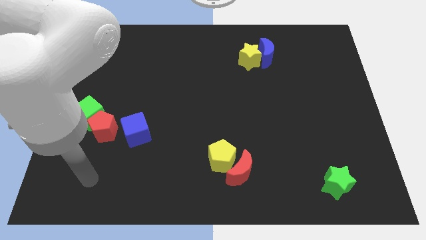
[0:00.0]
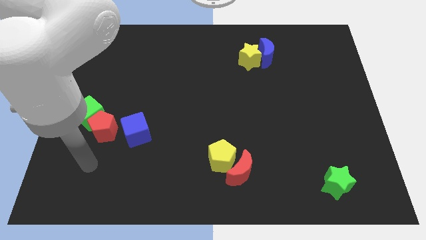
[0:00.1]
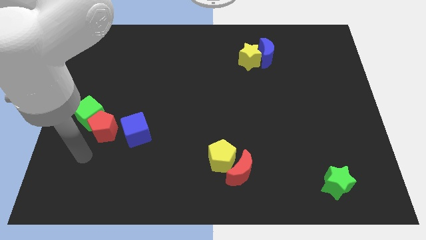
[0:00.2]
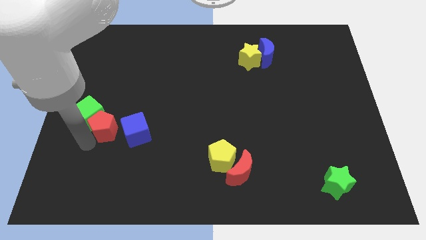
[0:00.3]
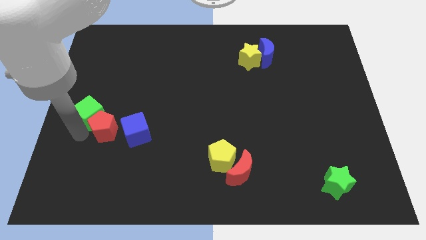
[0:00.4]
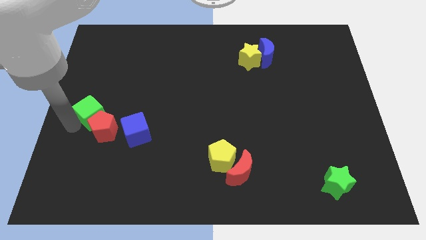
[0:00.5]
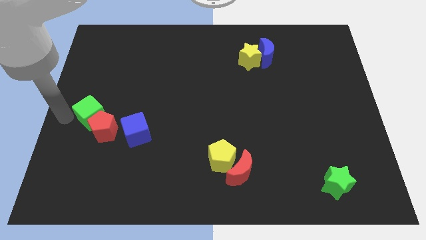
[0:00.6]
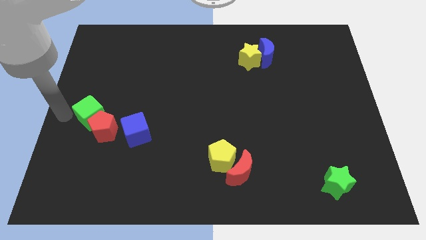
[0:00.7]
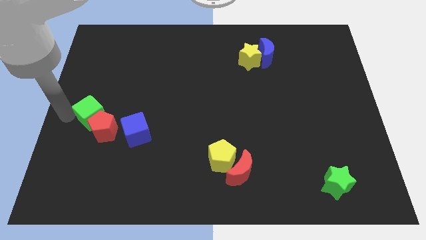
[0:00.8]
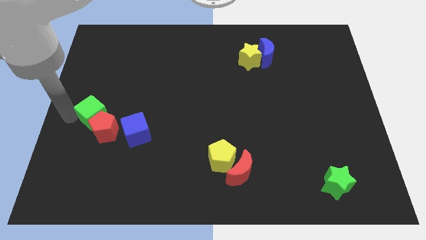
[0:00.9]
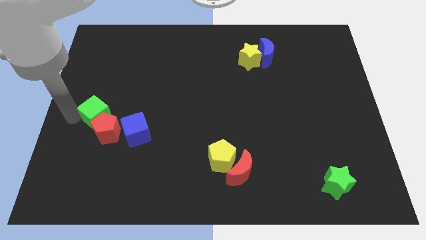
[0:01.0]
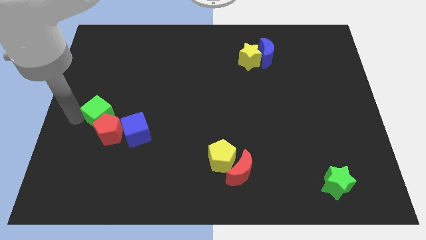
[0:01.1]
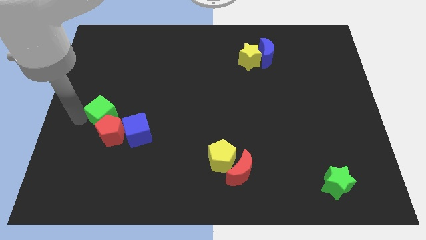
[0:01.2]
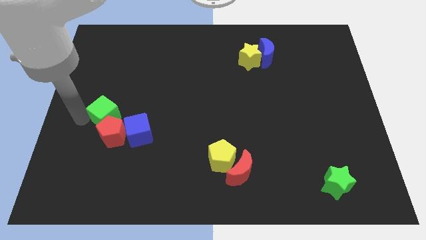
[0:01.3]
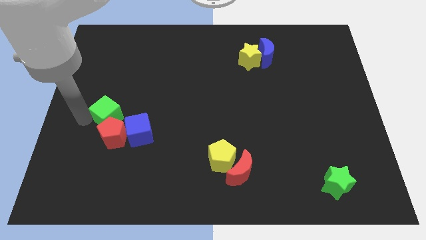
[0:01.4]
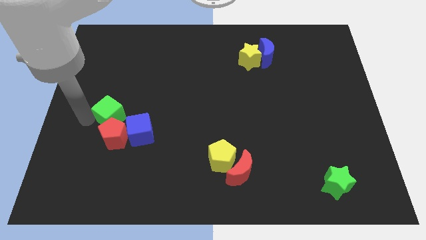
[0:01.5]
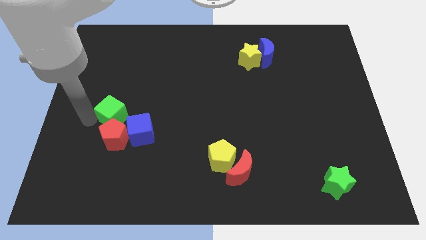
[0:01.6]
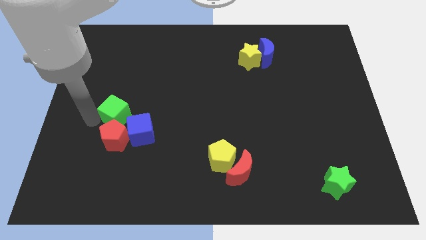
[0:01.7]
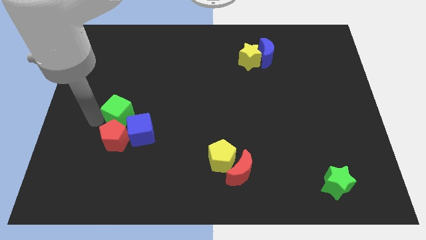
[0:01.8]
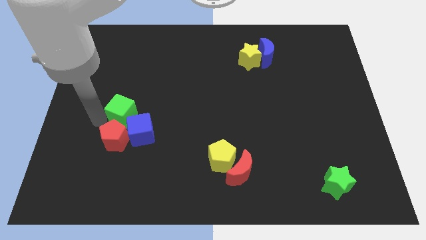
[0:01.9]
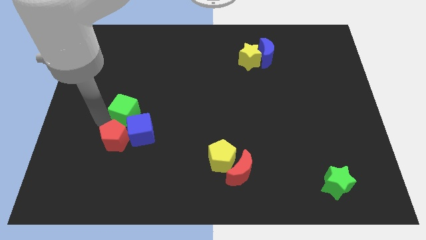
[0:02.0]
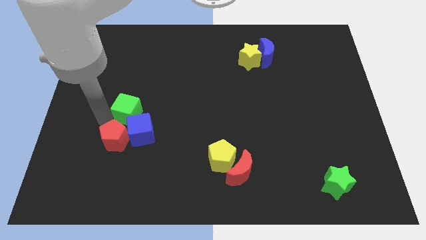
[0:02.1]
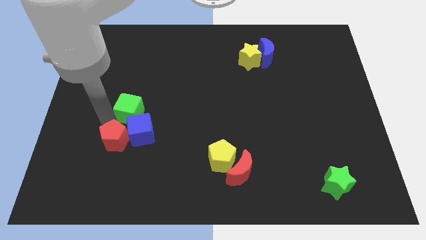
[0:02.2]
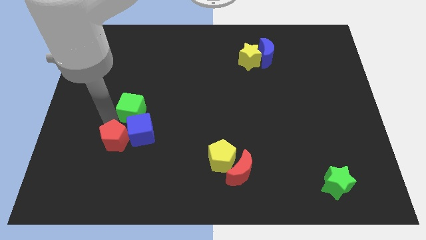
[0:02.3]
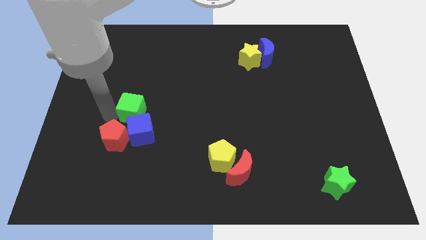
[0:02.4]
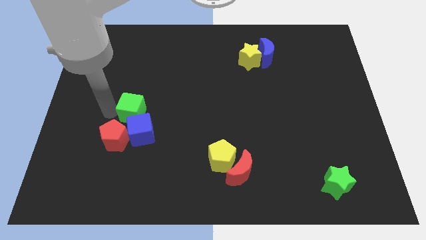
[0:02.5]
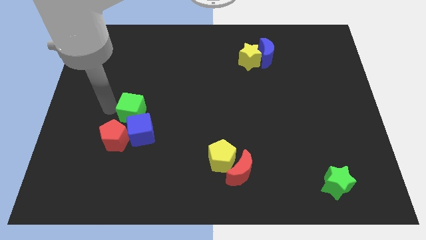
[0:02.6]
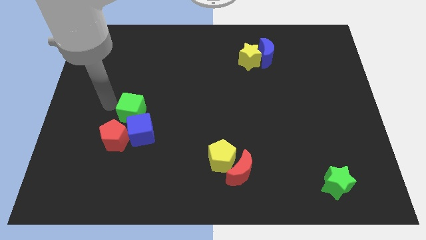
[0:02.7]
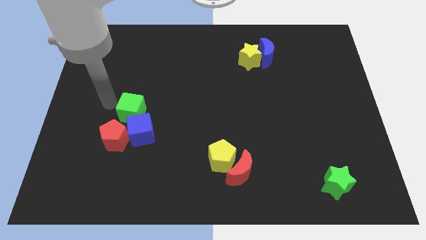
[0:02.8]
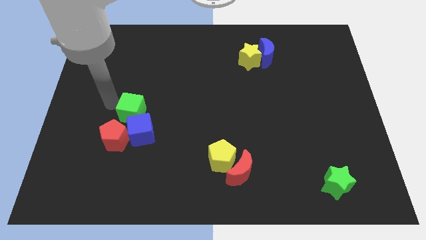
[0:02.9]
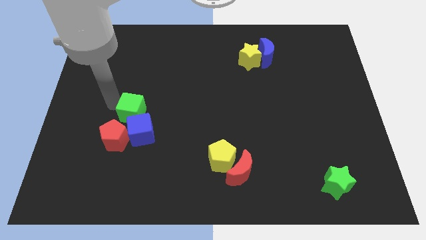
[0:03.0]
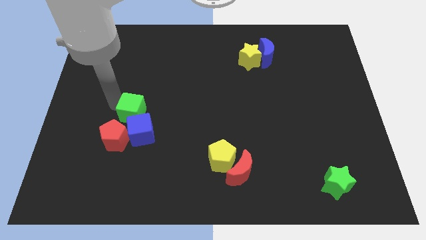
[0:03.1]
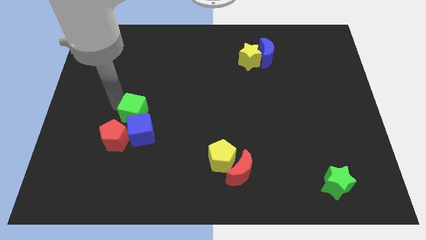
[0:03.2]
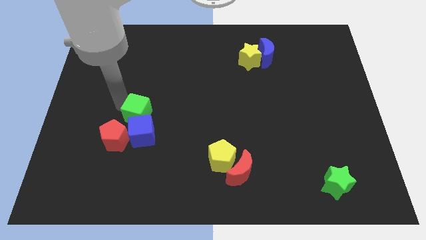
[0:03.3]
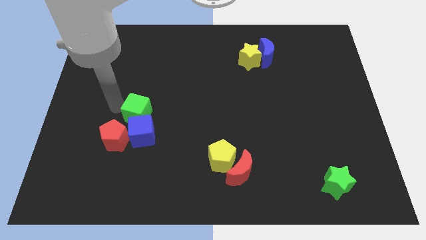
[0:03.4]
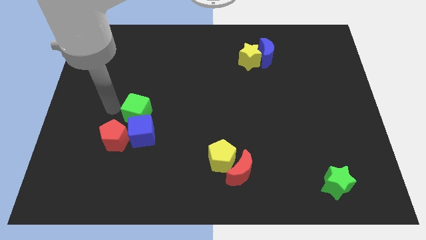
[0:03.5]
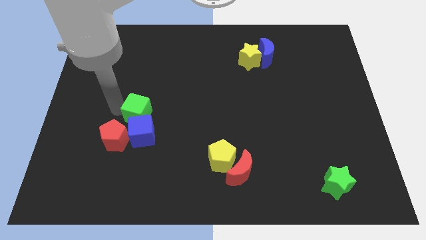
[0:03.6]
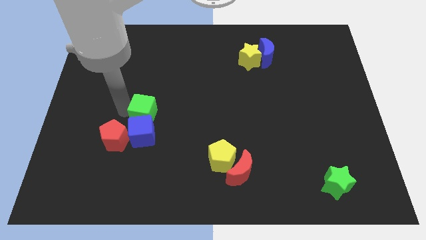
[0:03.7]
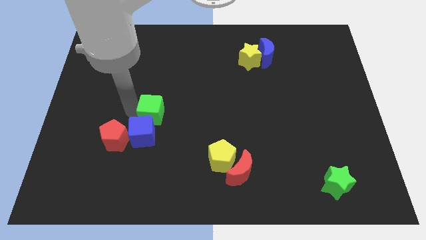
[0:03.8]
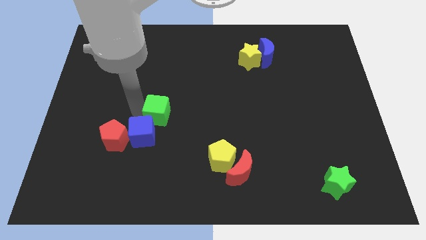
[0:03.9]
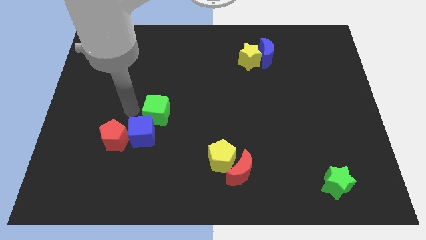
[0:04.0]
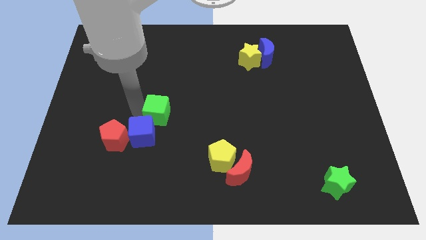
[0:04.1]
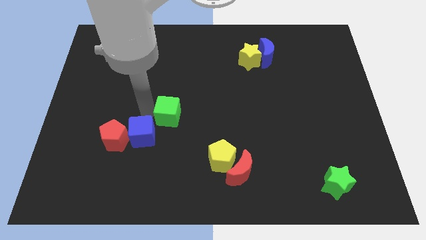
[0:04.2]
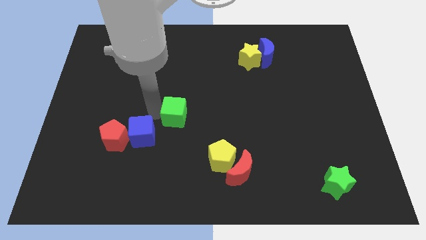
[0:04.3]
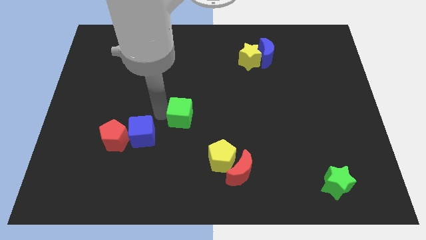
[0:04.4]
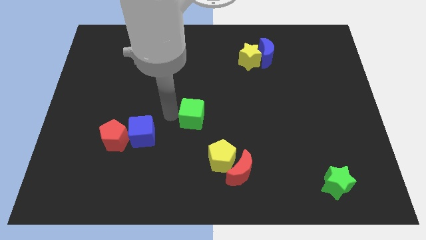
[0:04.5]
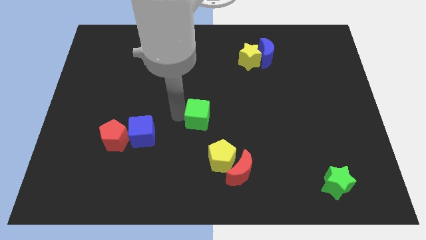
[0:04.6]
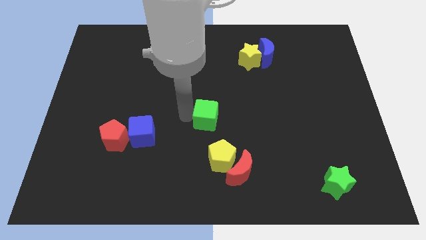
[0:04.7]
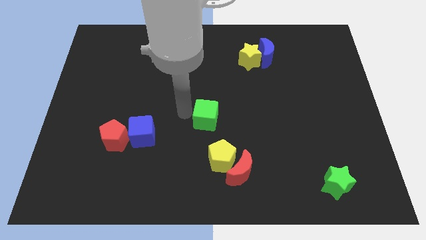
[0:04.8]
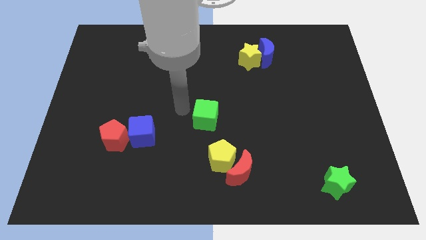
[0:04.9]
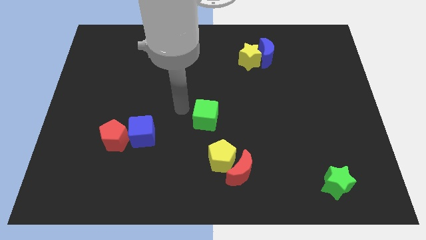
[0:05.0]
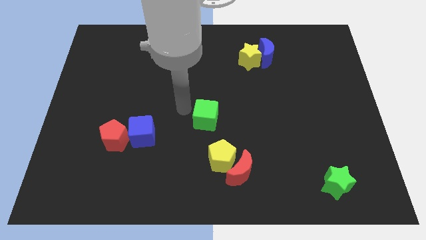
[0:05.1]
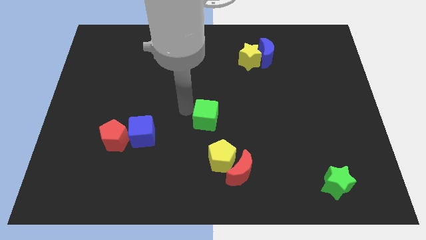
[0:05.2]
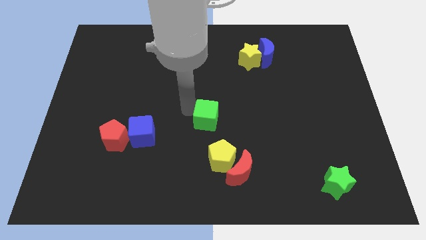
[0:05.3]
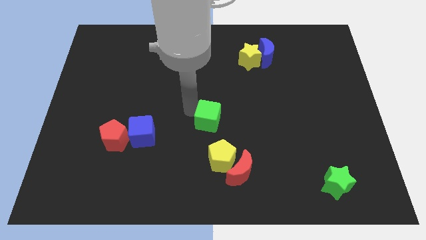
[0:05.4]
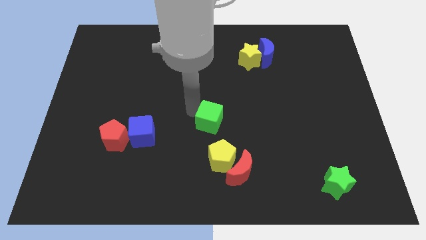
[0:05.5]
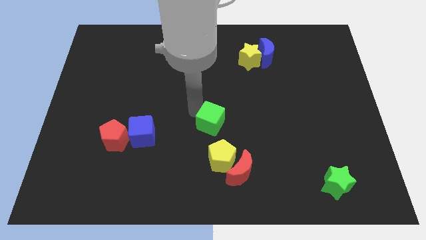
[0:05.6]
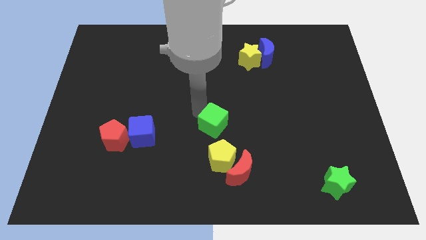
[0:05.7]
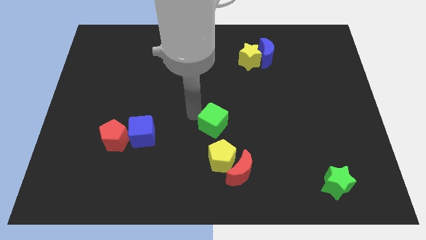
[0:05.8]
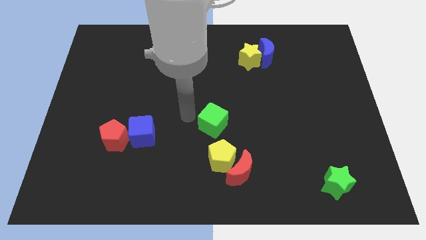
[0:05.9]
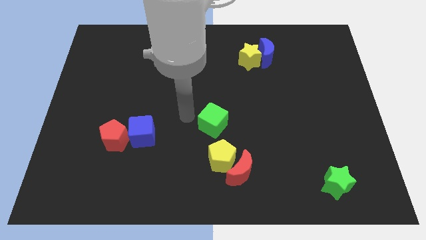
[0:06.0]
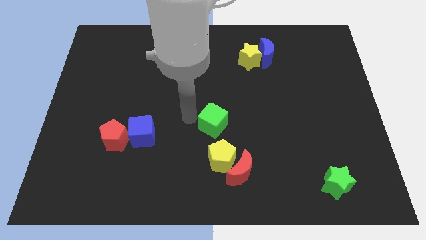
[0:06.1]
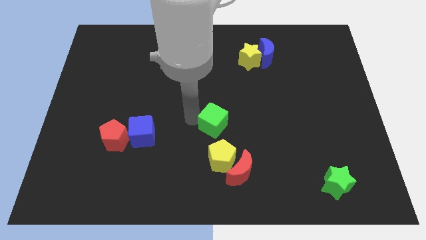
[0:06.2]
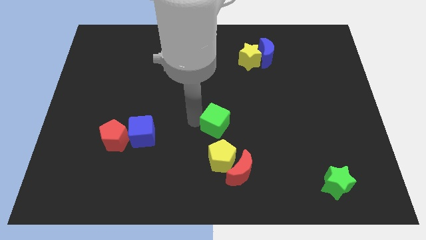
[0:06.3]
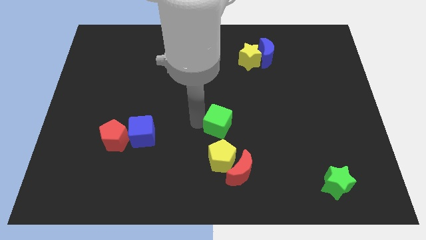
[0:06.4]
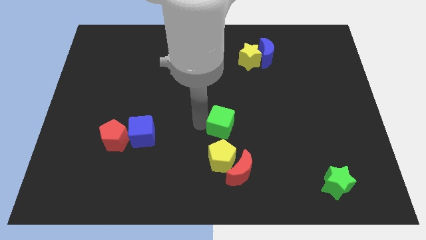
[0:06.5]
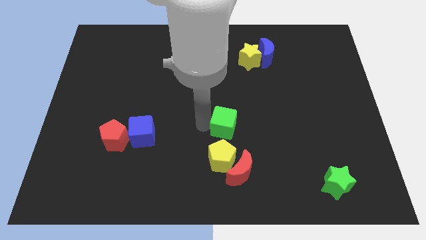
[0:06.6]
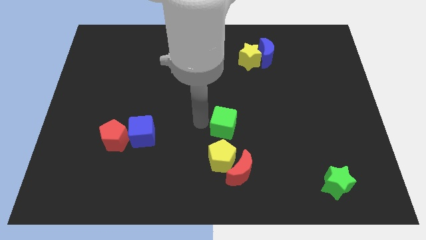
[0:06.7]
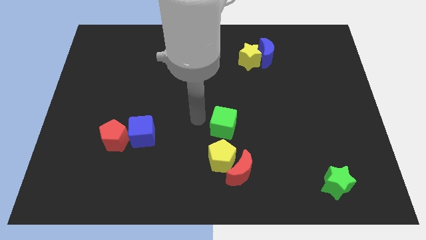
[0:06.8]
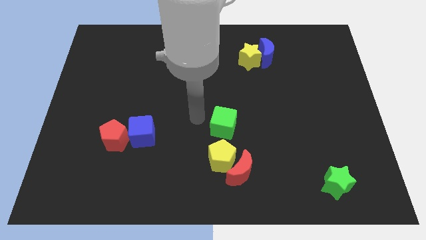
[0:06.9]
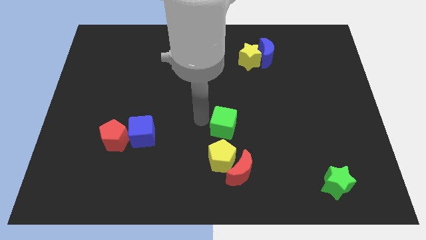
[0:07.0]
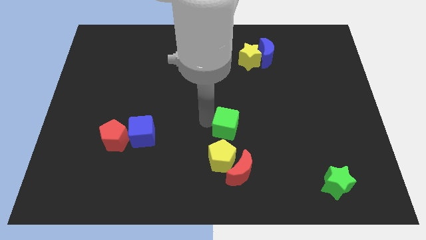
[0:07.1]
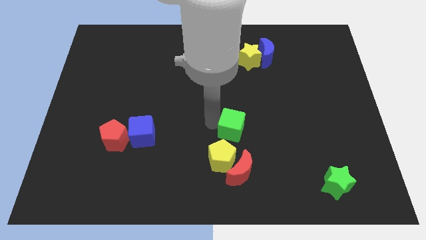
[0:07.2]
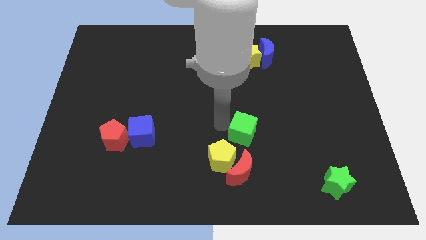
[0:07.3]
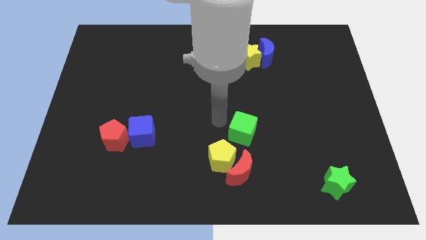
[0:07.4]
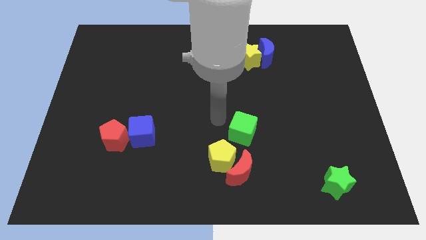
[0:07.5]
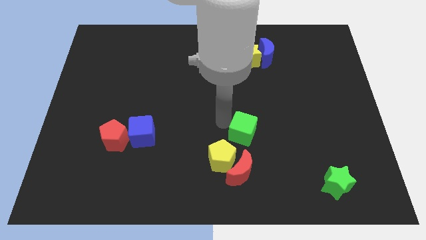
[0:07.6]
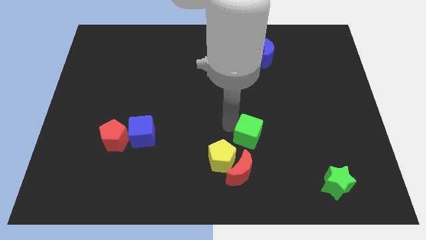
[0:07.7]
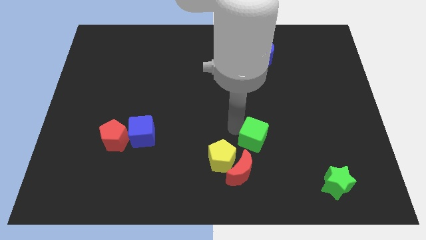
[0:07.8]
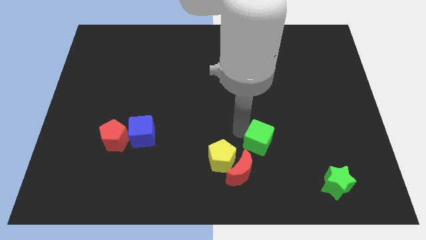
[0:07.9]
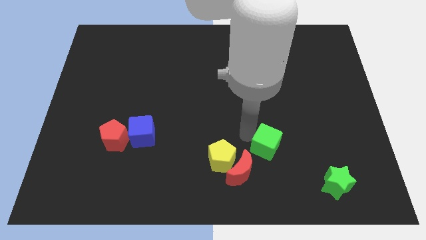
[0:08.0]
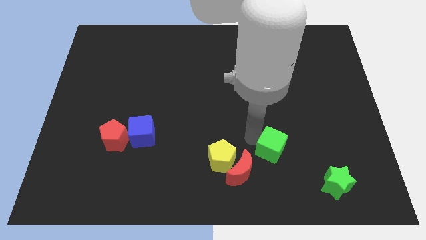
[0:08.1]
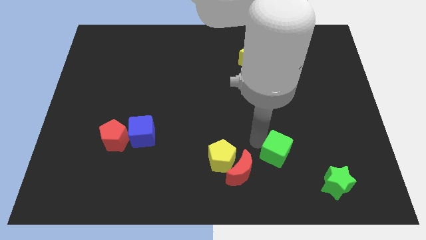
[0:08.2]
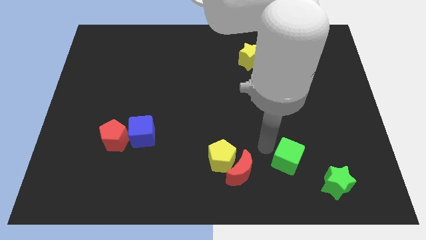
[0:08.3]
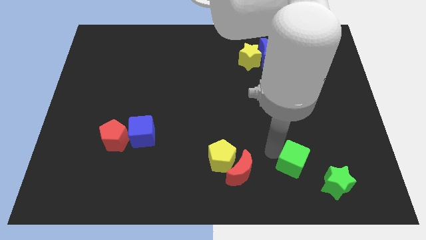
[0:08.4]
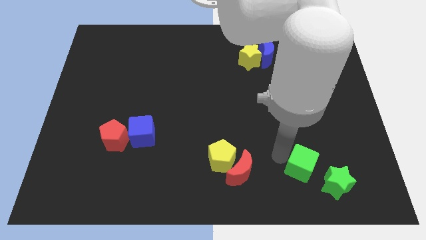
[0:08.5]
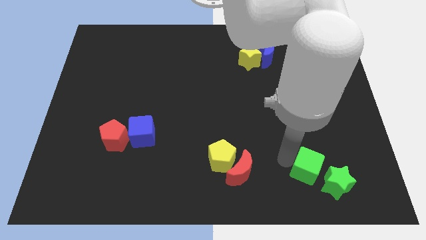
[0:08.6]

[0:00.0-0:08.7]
push the green cube towards the green star
